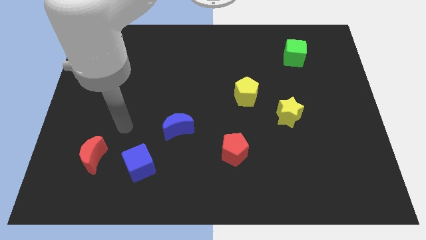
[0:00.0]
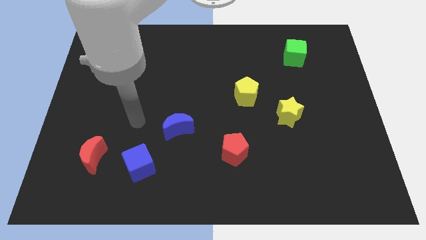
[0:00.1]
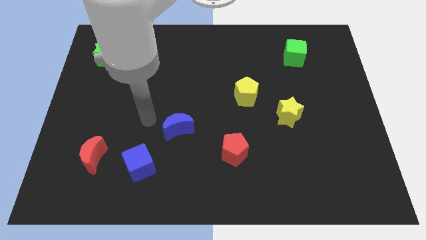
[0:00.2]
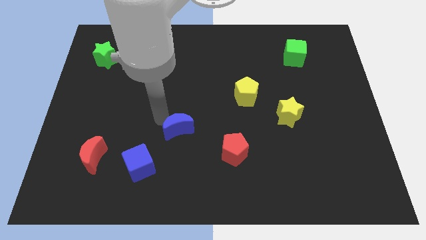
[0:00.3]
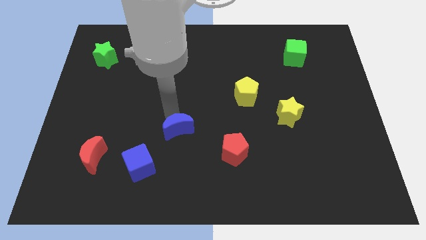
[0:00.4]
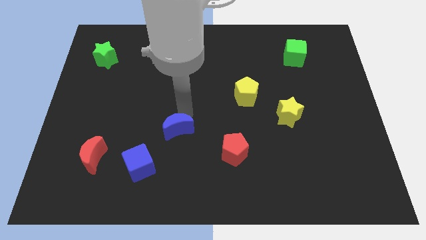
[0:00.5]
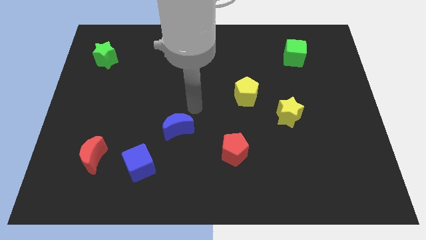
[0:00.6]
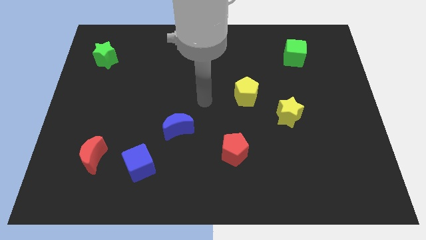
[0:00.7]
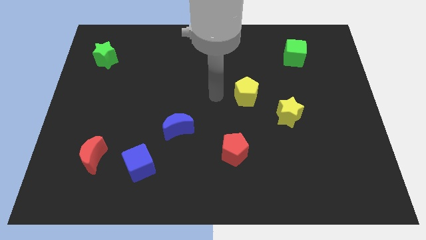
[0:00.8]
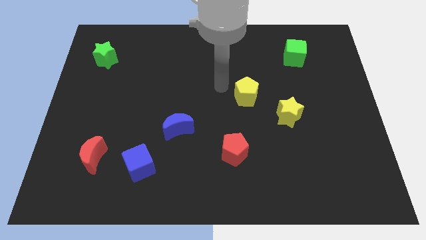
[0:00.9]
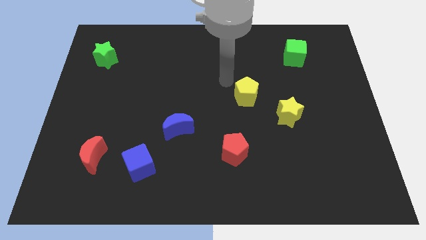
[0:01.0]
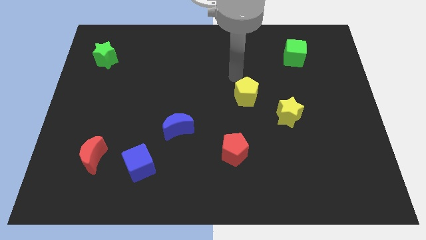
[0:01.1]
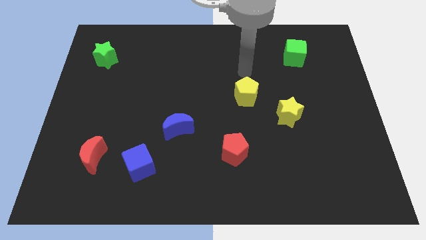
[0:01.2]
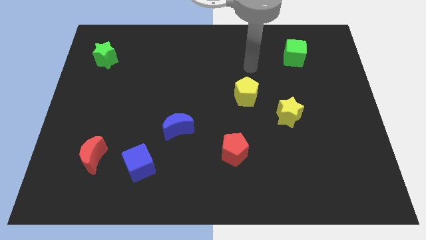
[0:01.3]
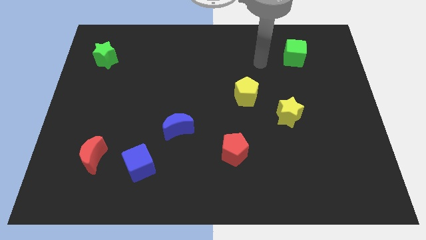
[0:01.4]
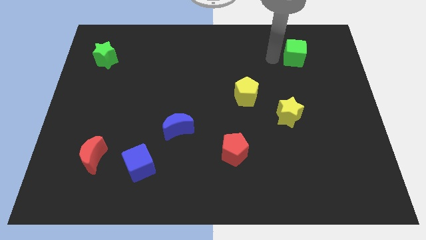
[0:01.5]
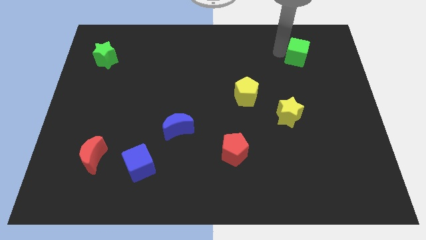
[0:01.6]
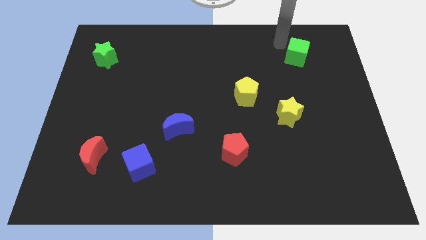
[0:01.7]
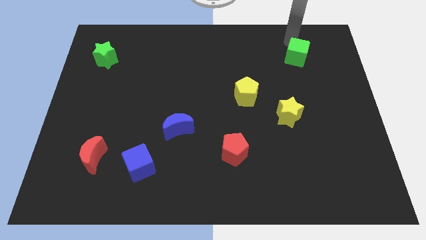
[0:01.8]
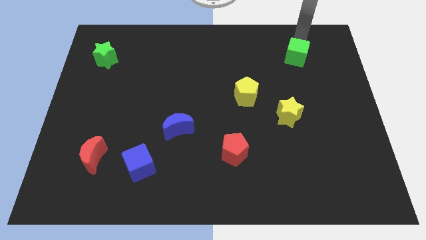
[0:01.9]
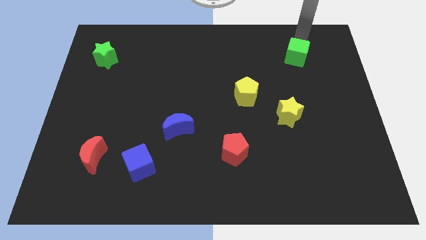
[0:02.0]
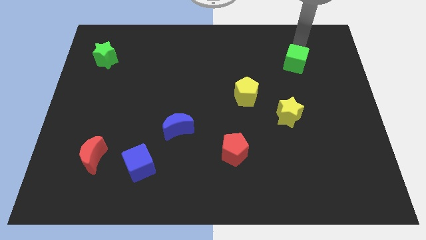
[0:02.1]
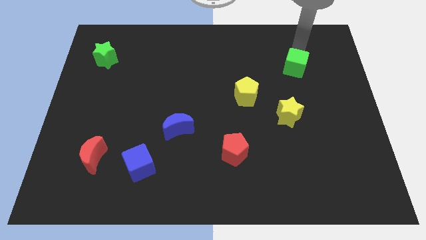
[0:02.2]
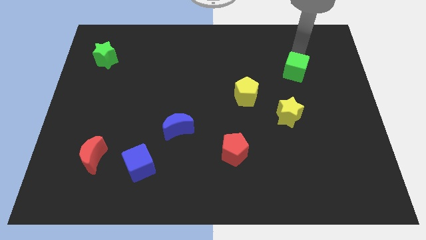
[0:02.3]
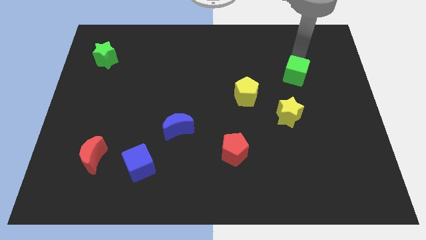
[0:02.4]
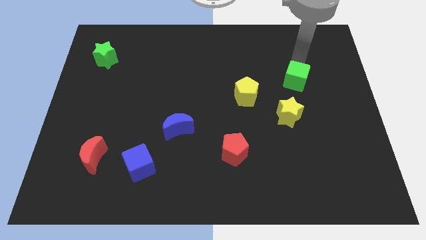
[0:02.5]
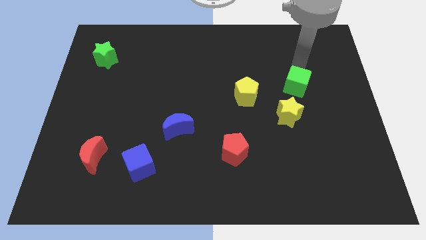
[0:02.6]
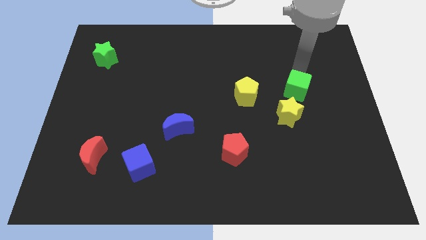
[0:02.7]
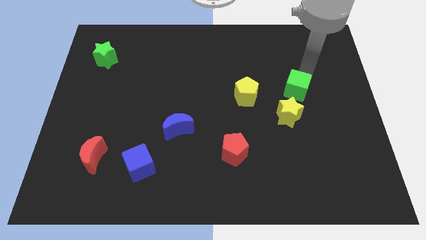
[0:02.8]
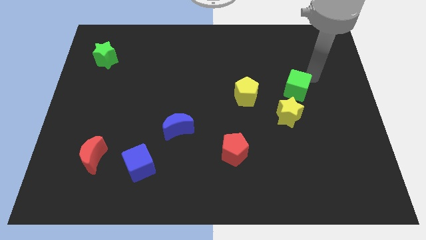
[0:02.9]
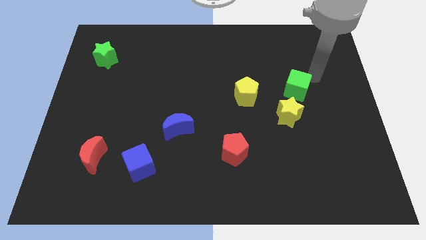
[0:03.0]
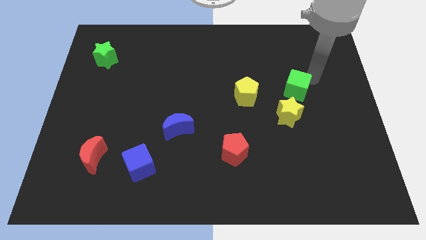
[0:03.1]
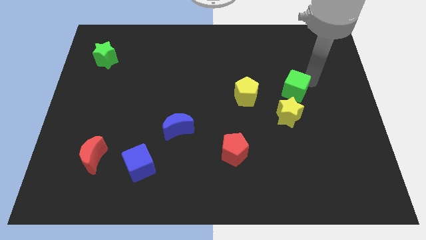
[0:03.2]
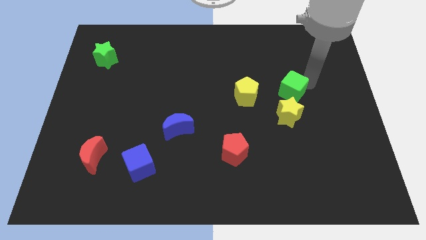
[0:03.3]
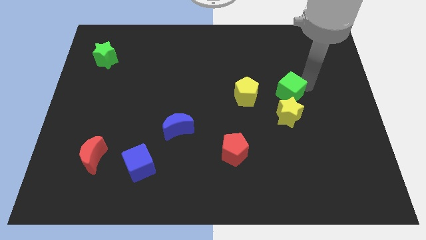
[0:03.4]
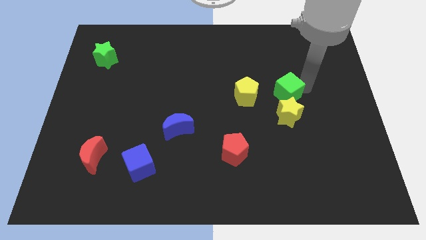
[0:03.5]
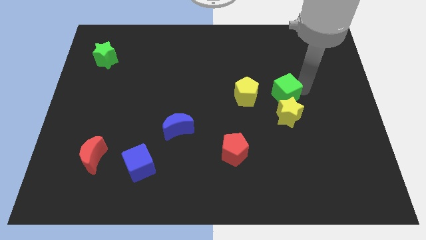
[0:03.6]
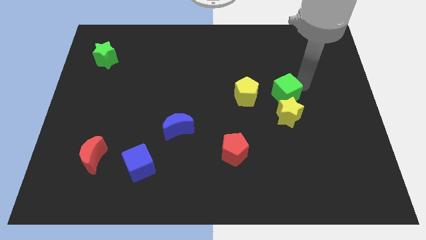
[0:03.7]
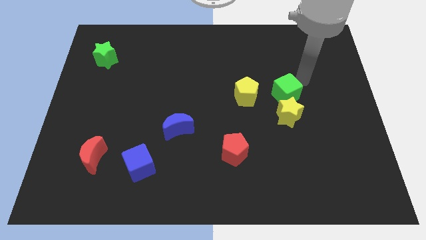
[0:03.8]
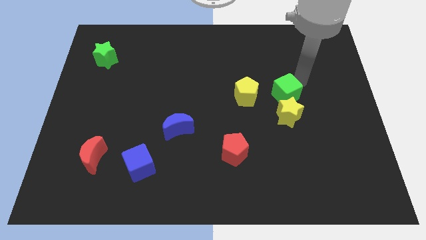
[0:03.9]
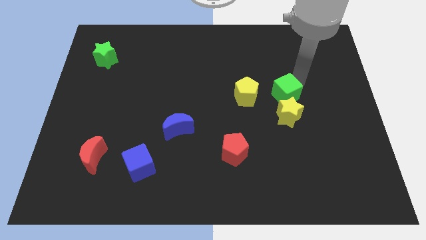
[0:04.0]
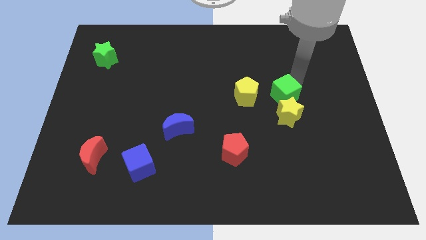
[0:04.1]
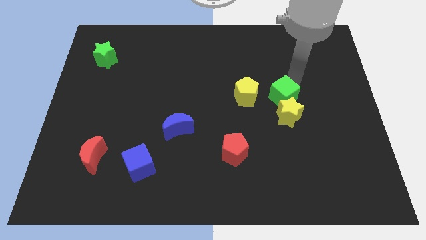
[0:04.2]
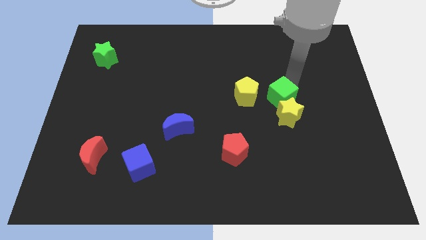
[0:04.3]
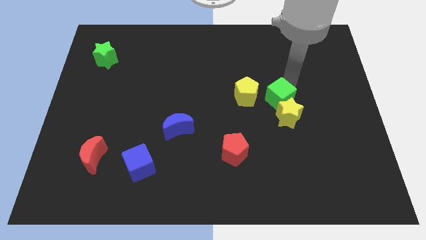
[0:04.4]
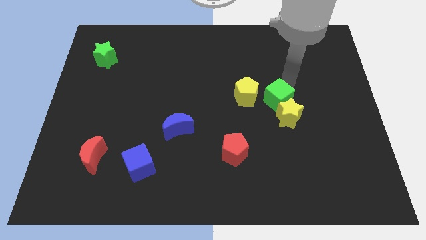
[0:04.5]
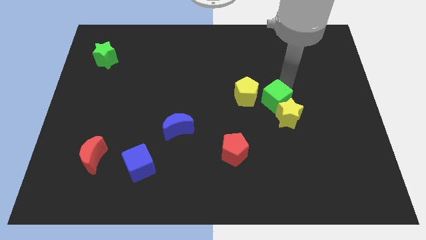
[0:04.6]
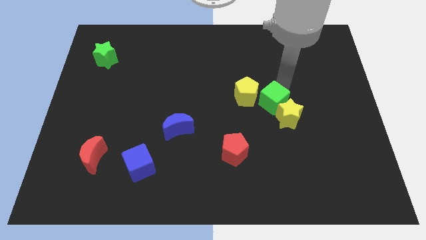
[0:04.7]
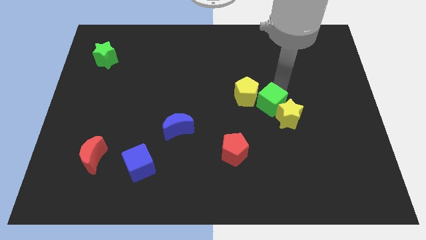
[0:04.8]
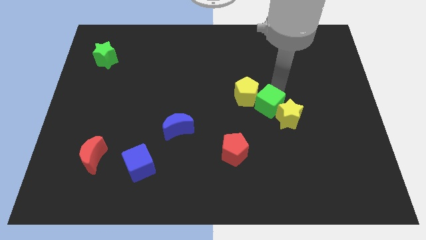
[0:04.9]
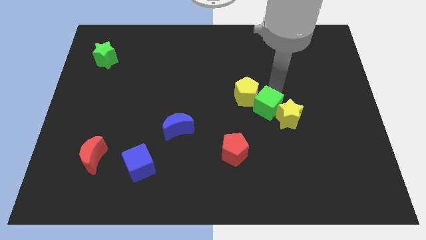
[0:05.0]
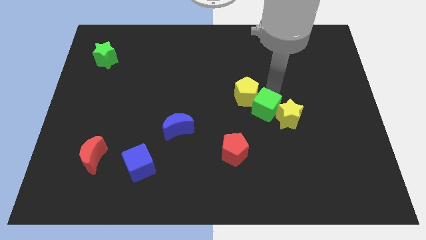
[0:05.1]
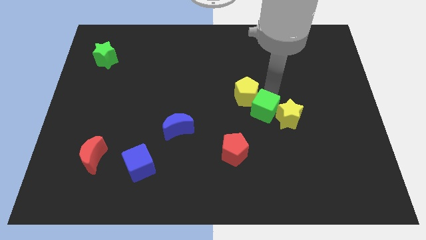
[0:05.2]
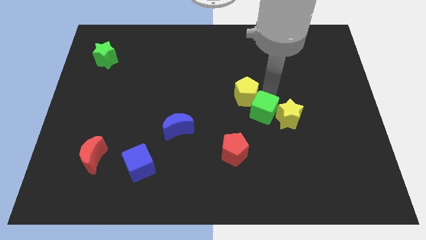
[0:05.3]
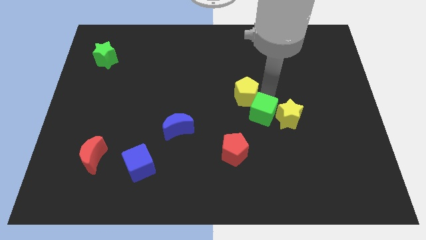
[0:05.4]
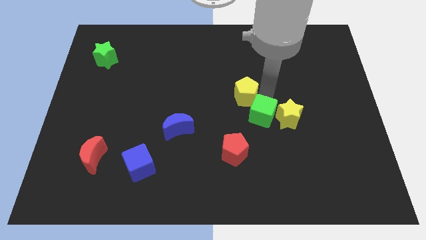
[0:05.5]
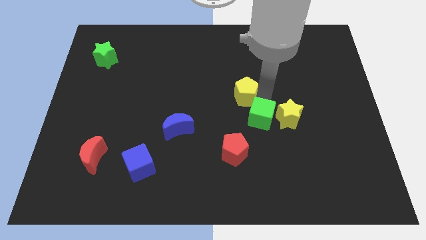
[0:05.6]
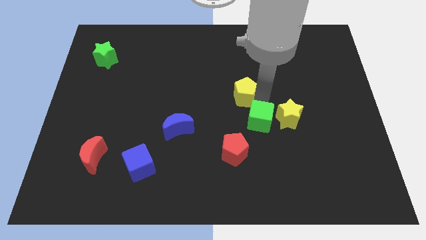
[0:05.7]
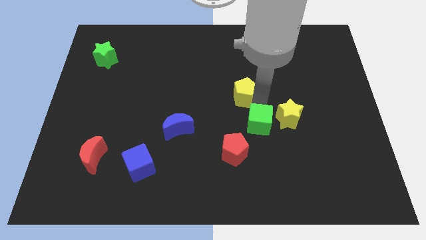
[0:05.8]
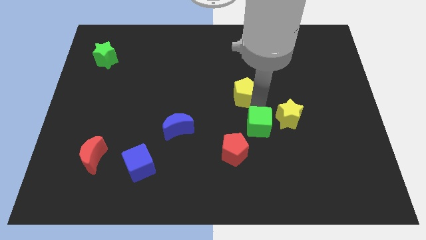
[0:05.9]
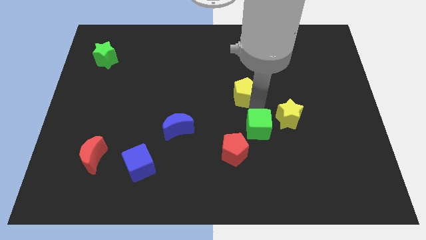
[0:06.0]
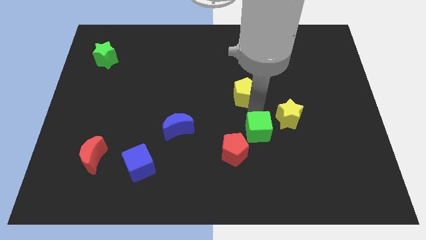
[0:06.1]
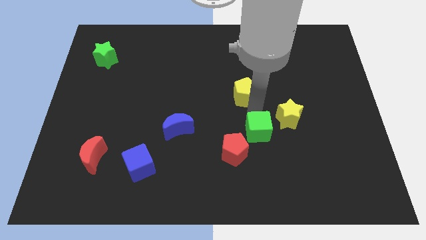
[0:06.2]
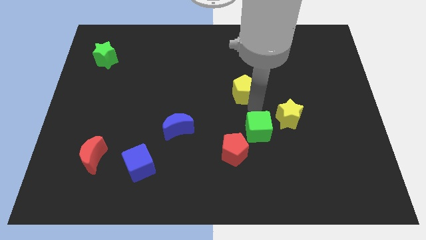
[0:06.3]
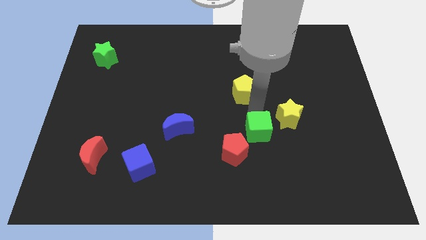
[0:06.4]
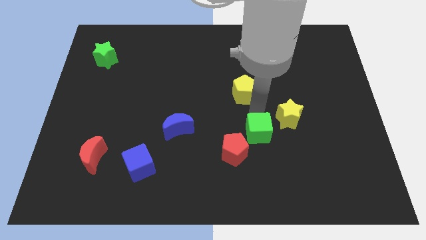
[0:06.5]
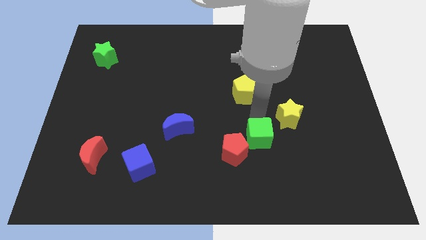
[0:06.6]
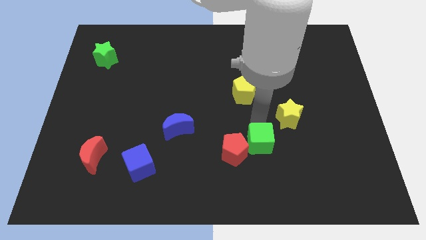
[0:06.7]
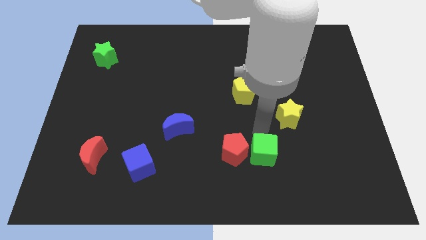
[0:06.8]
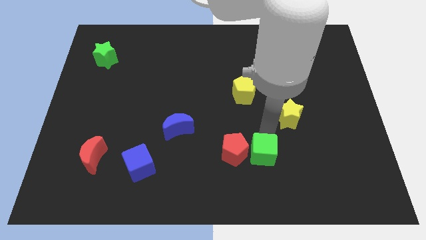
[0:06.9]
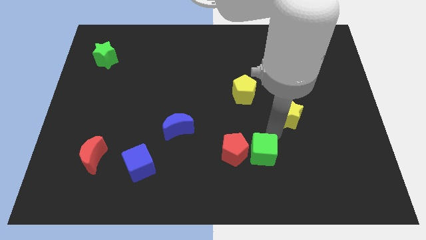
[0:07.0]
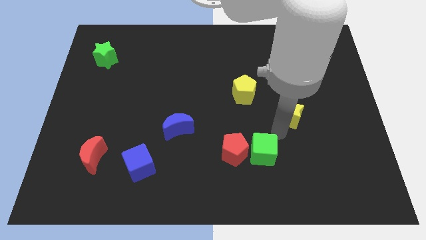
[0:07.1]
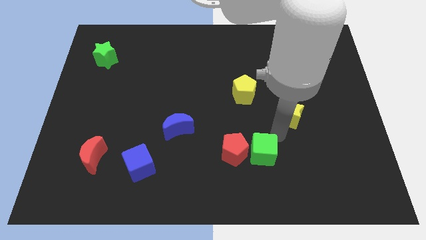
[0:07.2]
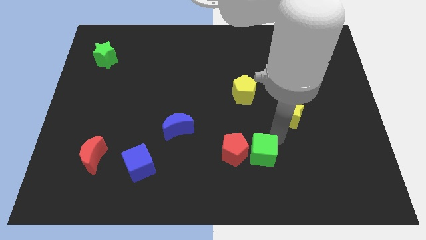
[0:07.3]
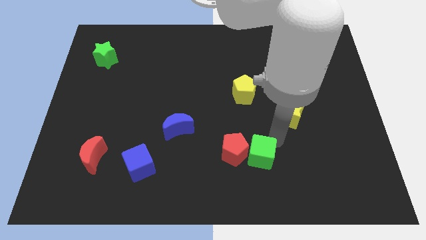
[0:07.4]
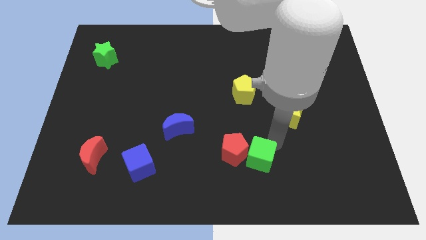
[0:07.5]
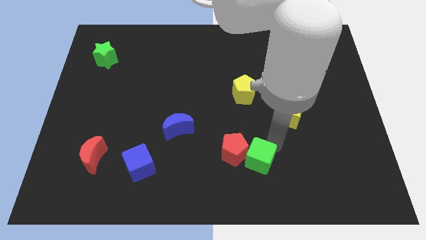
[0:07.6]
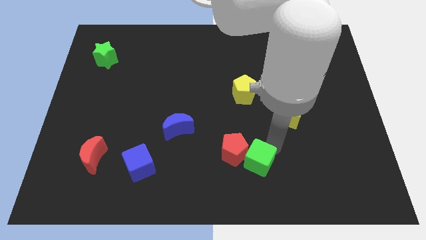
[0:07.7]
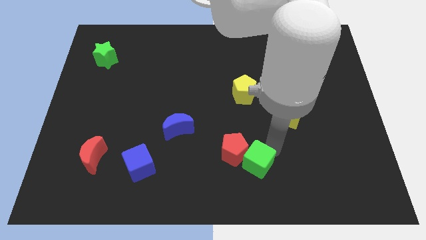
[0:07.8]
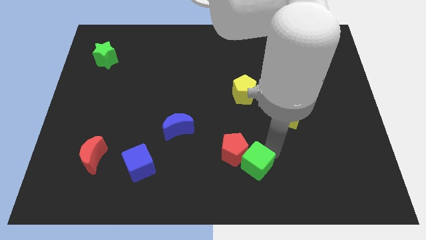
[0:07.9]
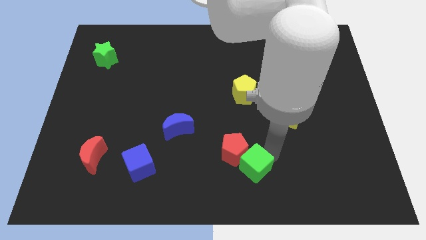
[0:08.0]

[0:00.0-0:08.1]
move the green cube to the bottom side
